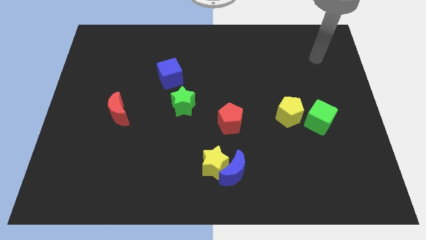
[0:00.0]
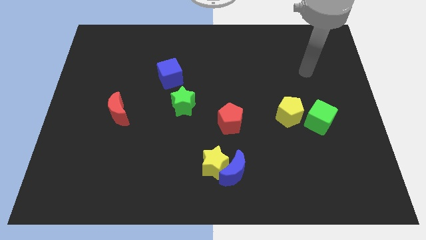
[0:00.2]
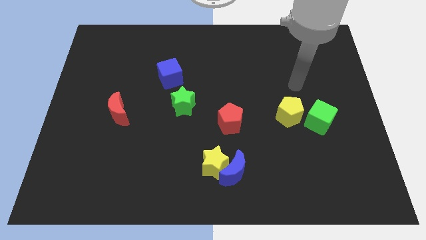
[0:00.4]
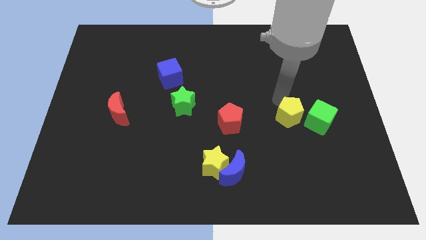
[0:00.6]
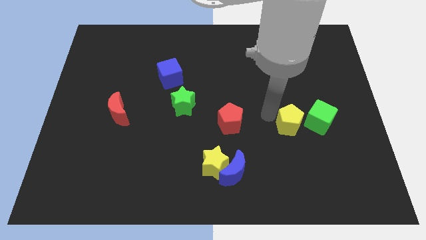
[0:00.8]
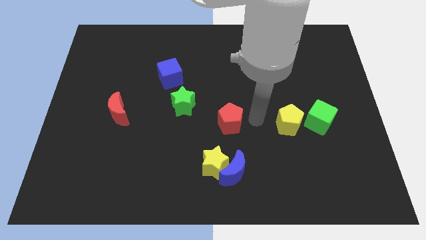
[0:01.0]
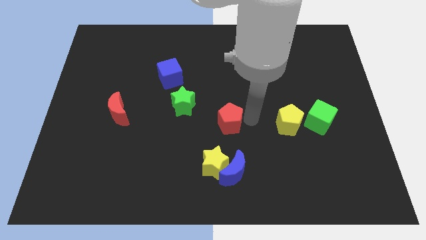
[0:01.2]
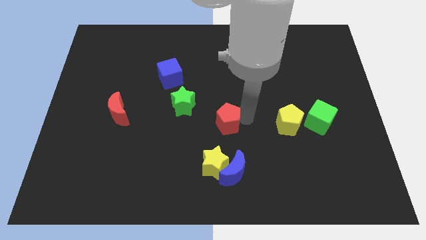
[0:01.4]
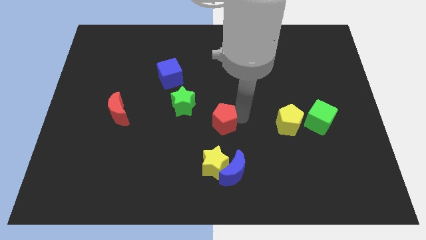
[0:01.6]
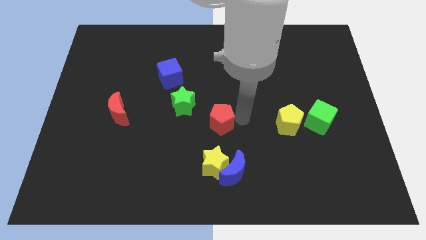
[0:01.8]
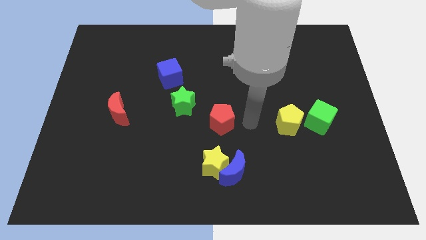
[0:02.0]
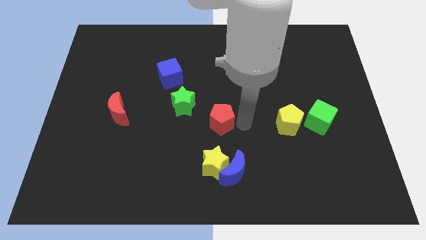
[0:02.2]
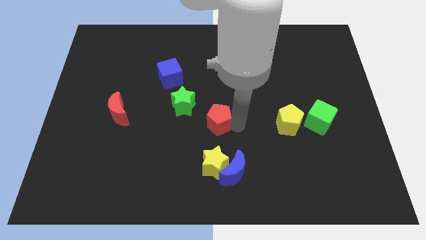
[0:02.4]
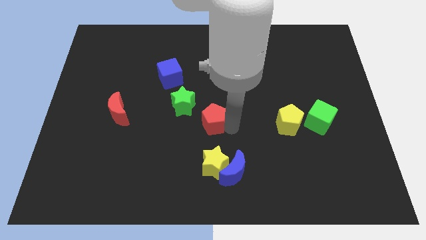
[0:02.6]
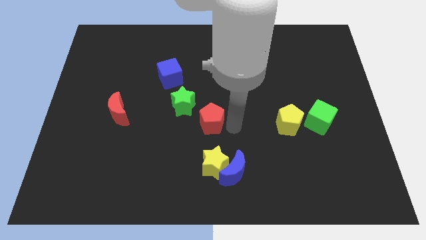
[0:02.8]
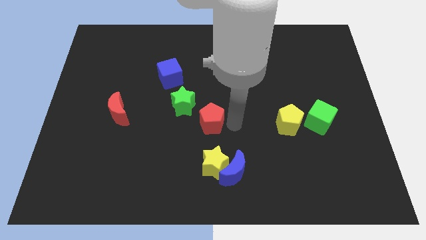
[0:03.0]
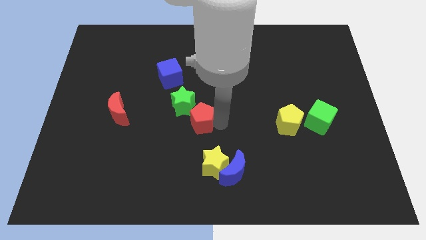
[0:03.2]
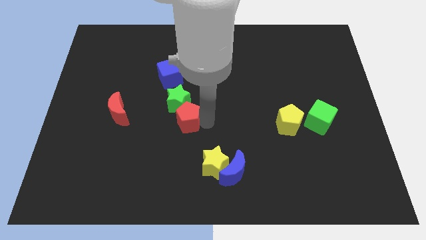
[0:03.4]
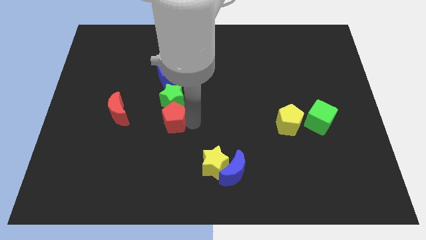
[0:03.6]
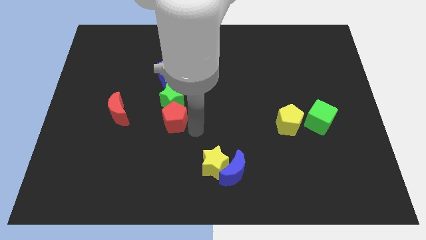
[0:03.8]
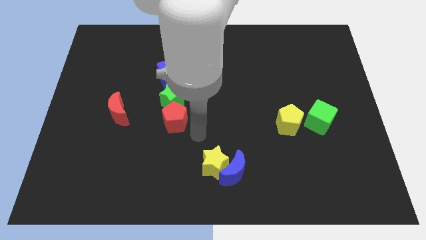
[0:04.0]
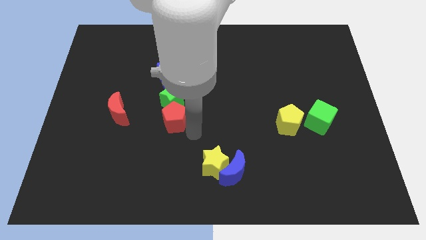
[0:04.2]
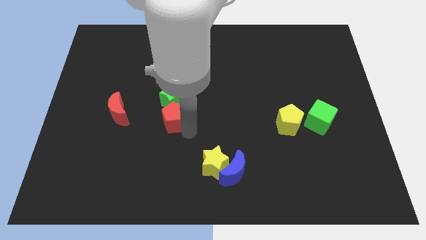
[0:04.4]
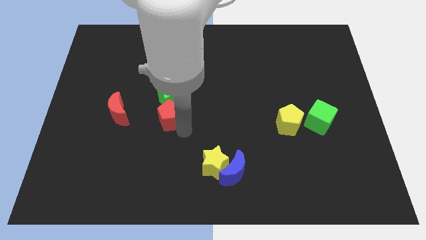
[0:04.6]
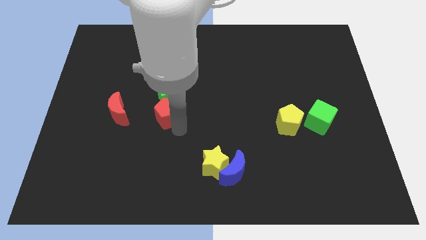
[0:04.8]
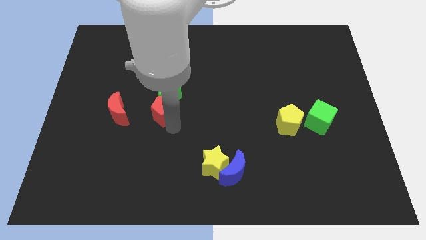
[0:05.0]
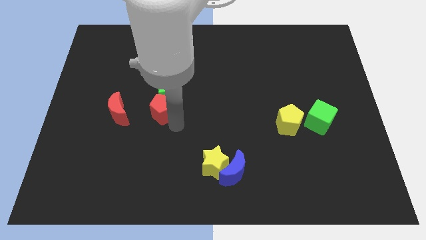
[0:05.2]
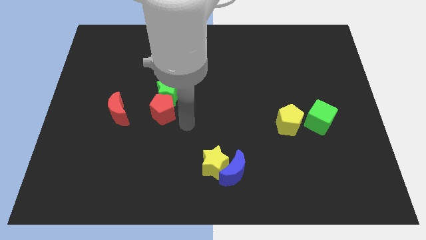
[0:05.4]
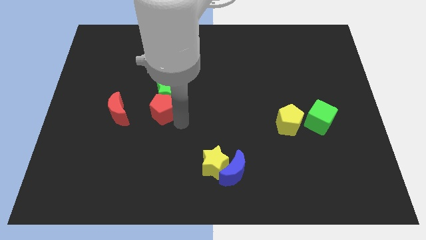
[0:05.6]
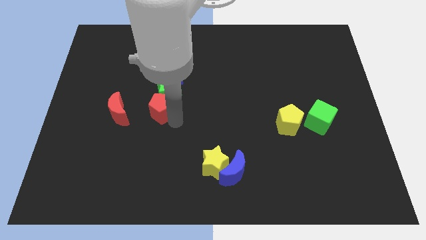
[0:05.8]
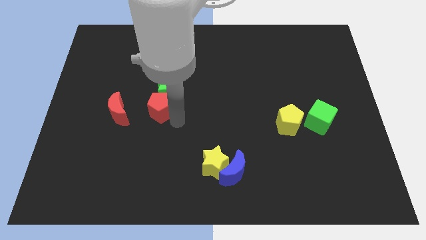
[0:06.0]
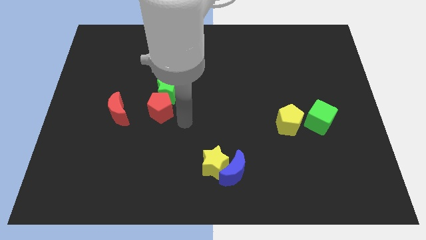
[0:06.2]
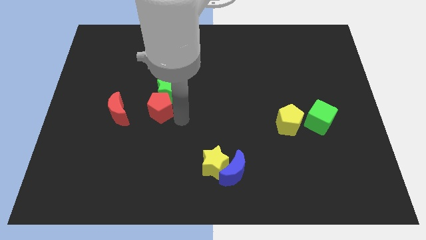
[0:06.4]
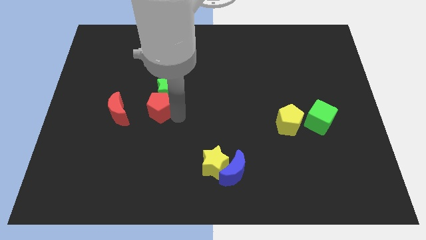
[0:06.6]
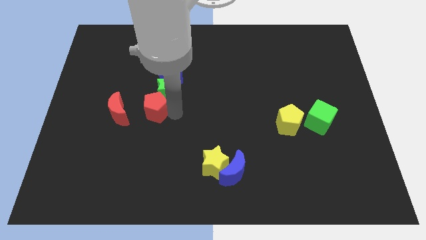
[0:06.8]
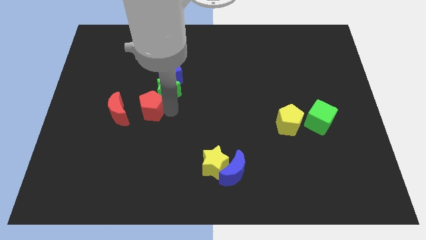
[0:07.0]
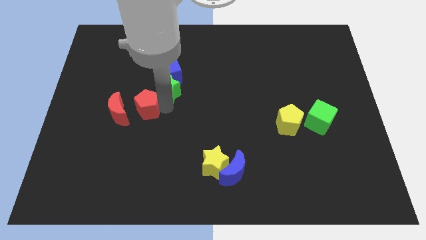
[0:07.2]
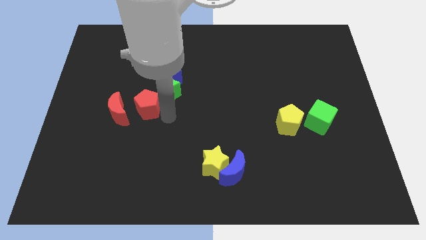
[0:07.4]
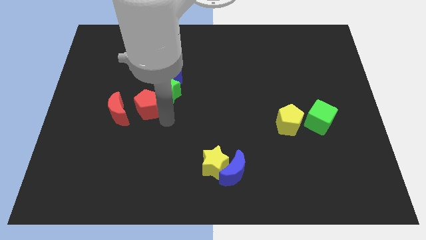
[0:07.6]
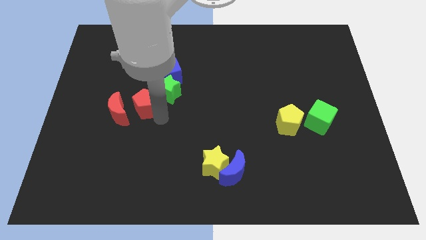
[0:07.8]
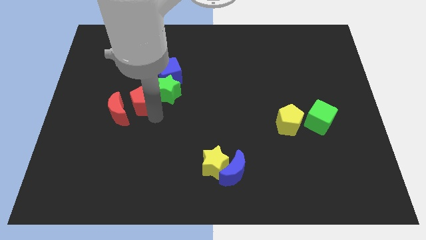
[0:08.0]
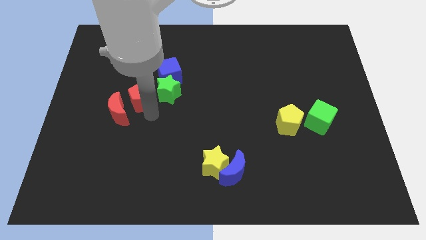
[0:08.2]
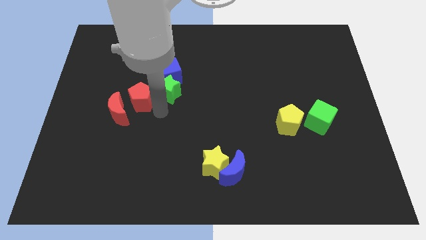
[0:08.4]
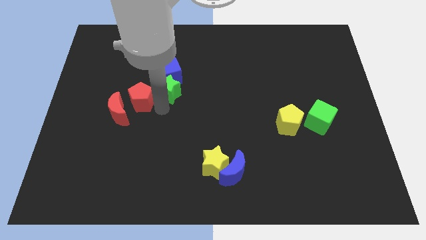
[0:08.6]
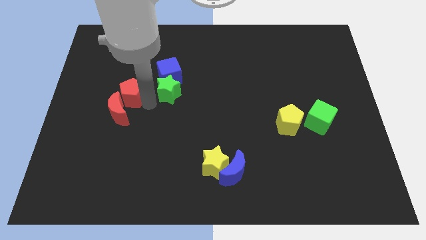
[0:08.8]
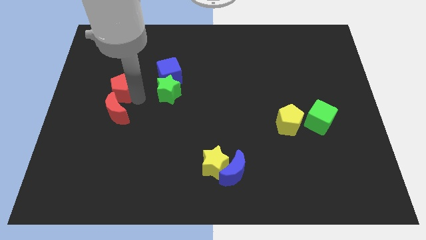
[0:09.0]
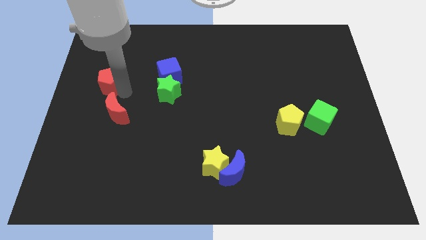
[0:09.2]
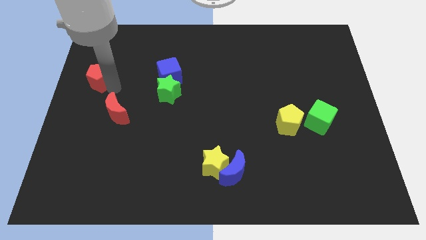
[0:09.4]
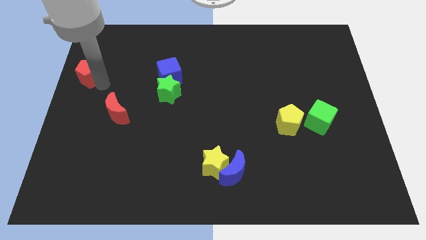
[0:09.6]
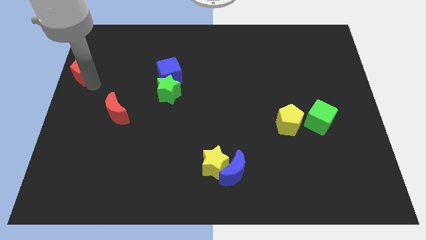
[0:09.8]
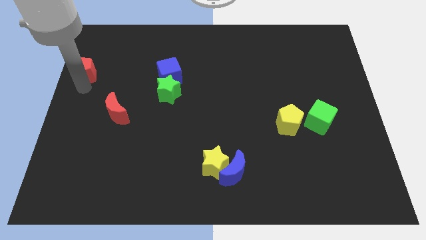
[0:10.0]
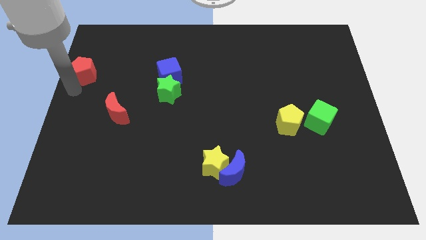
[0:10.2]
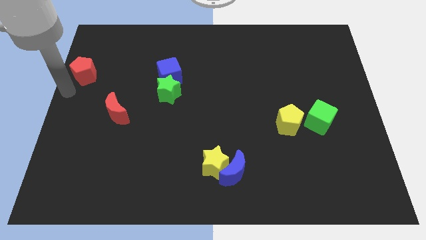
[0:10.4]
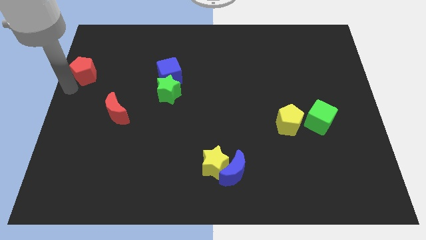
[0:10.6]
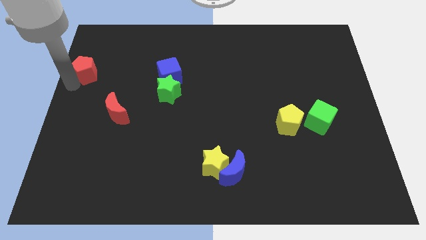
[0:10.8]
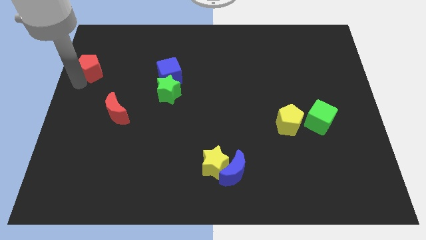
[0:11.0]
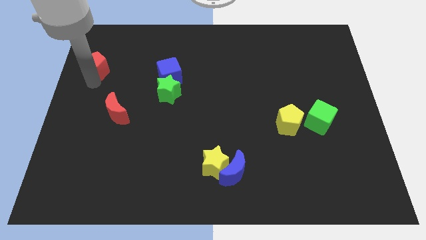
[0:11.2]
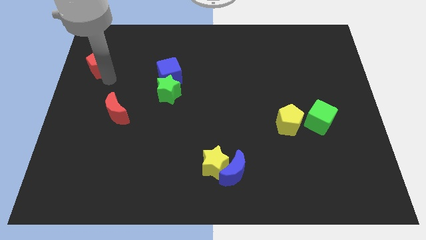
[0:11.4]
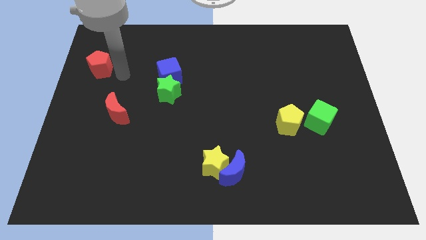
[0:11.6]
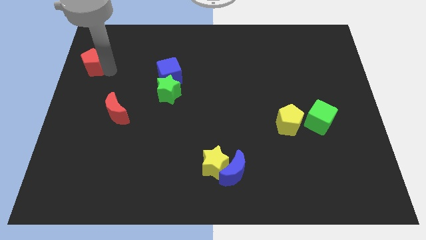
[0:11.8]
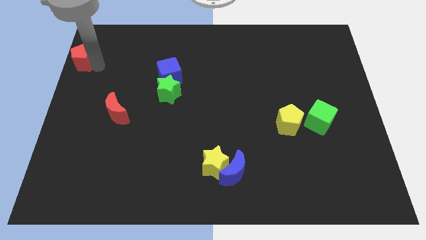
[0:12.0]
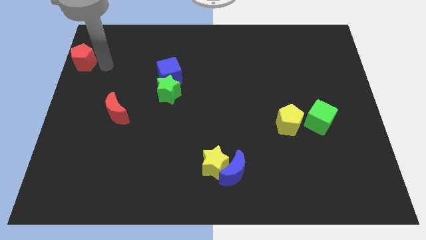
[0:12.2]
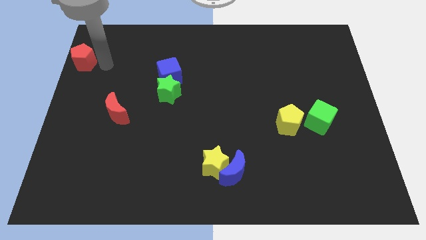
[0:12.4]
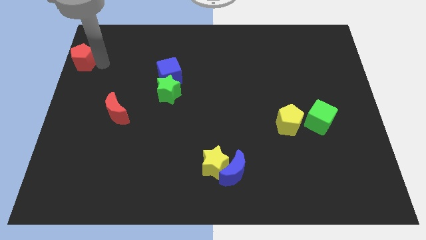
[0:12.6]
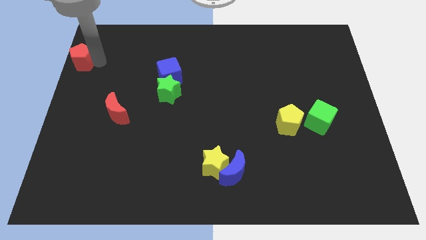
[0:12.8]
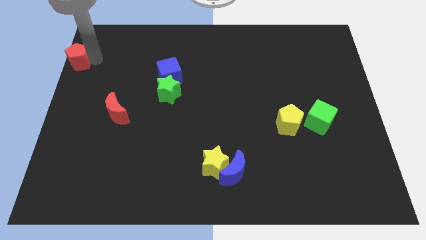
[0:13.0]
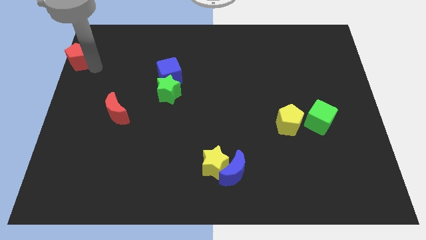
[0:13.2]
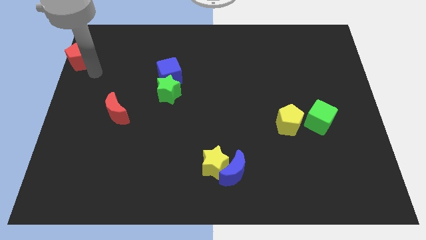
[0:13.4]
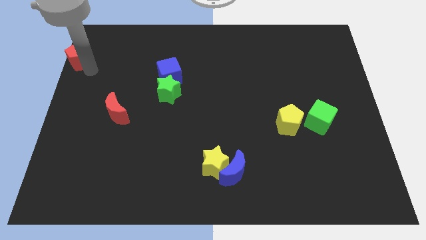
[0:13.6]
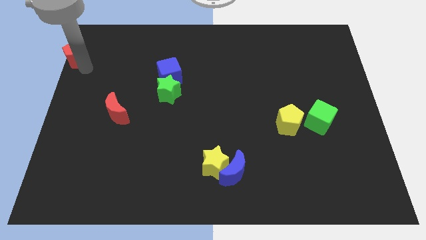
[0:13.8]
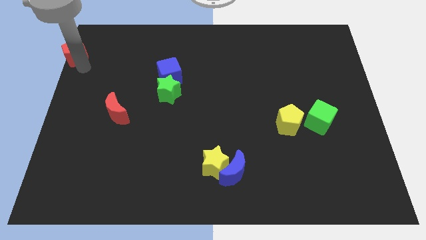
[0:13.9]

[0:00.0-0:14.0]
slide the red pentagon to the top left of the board
